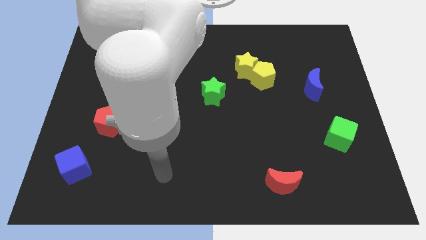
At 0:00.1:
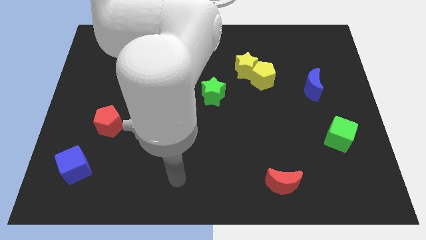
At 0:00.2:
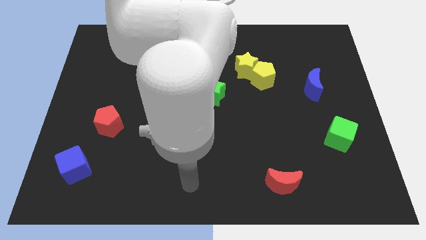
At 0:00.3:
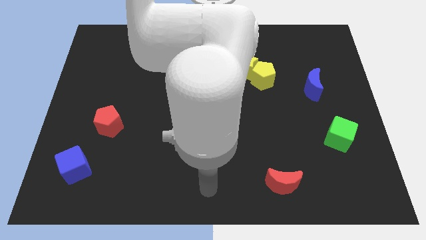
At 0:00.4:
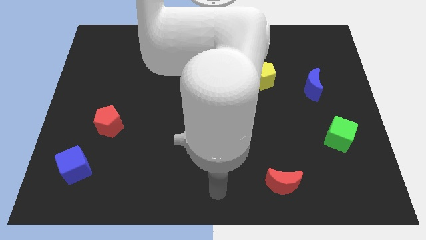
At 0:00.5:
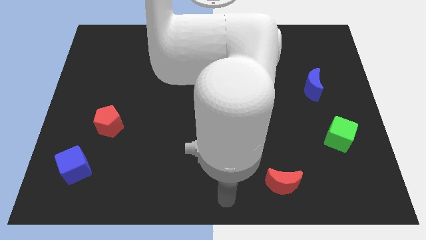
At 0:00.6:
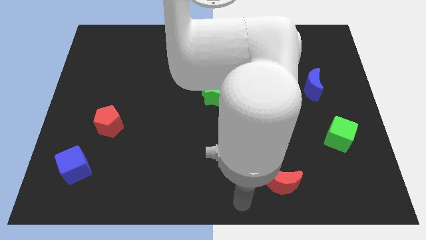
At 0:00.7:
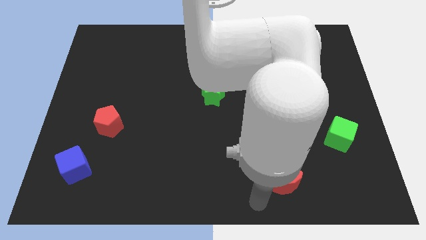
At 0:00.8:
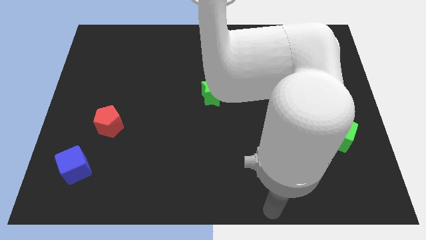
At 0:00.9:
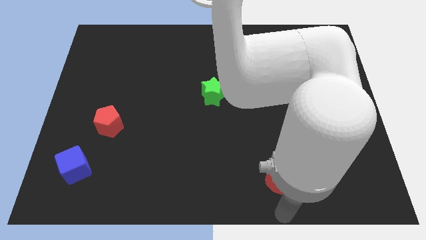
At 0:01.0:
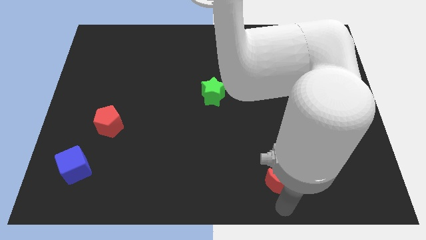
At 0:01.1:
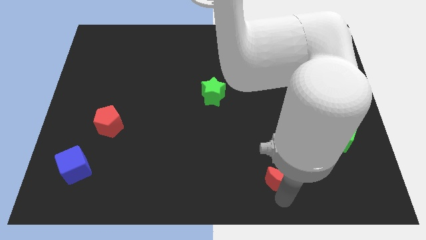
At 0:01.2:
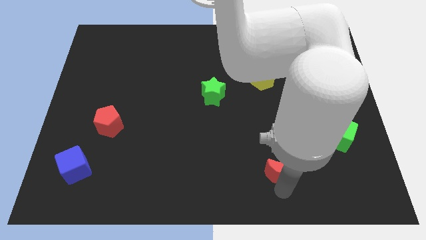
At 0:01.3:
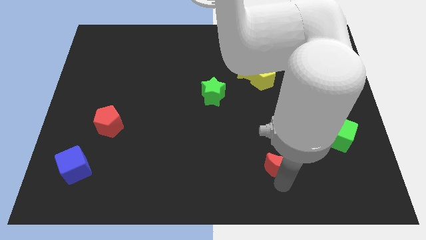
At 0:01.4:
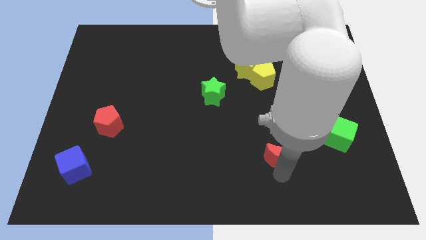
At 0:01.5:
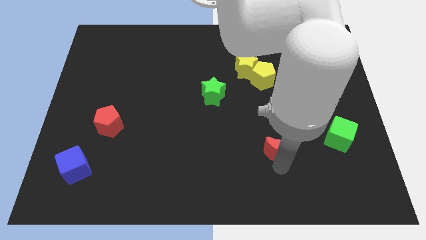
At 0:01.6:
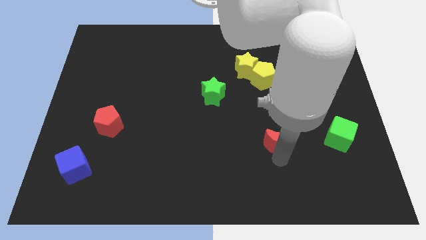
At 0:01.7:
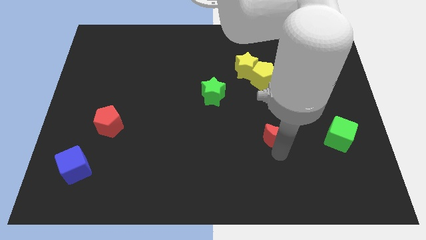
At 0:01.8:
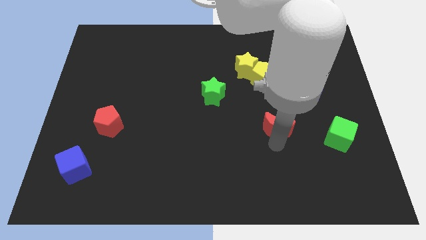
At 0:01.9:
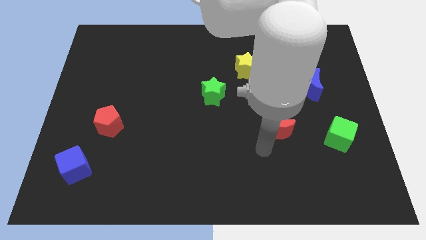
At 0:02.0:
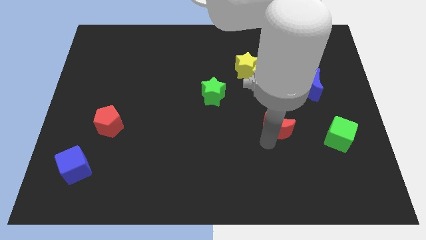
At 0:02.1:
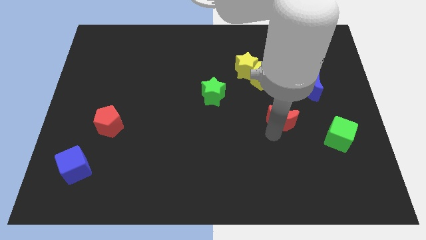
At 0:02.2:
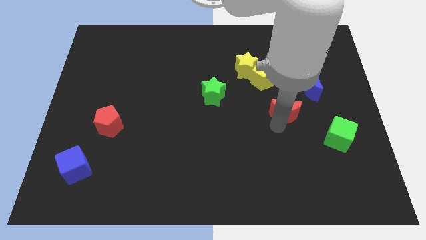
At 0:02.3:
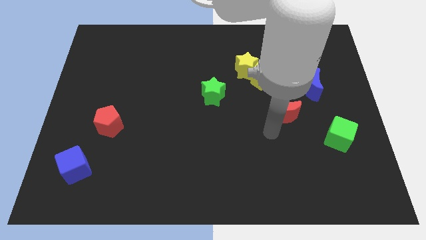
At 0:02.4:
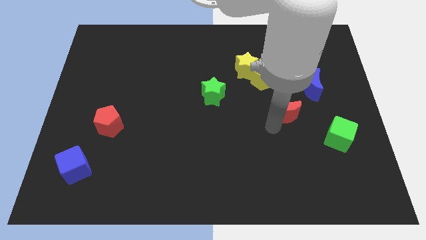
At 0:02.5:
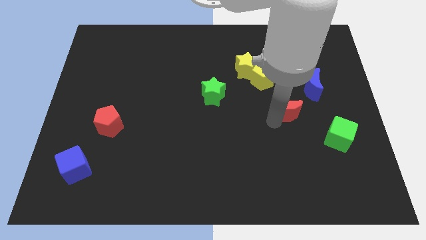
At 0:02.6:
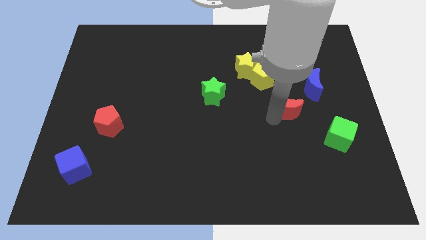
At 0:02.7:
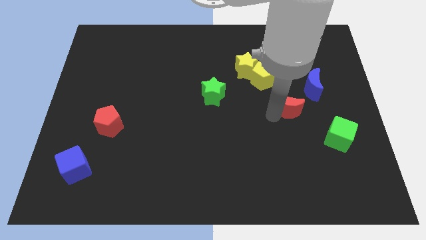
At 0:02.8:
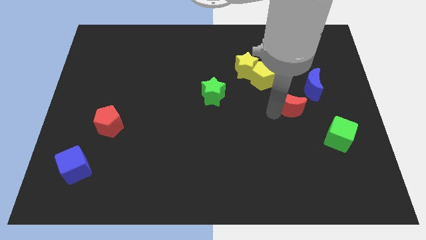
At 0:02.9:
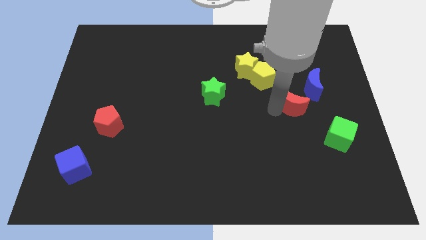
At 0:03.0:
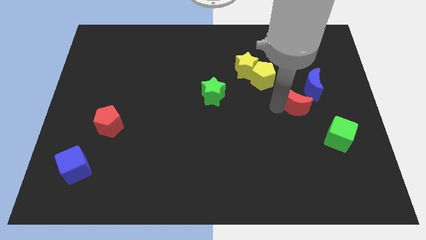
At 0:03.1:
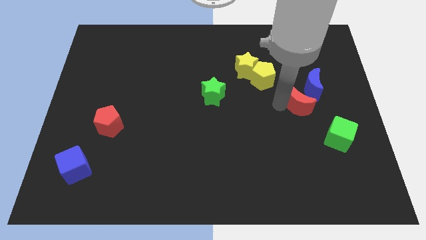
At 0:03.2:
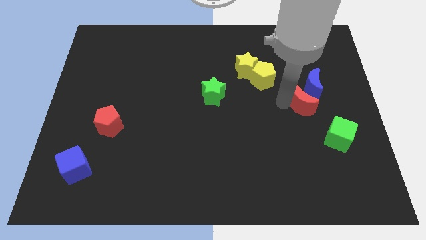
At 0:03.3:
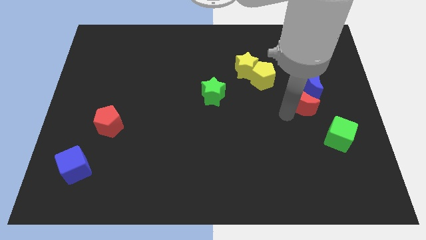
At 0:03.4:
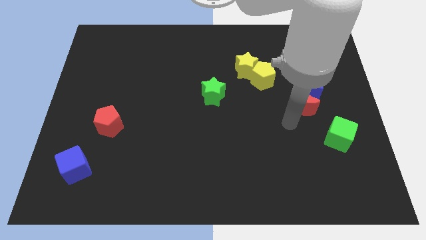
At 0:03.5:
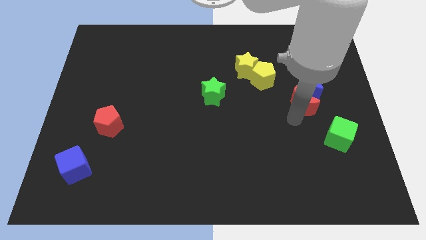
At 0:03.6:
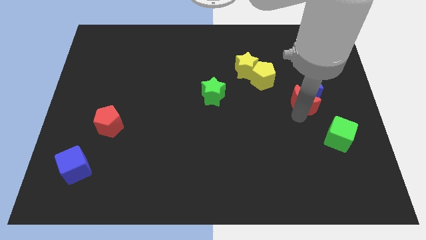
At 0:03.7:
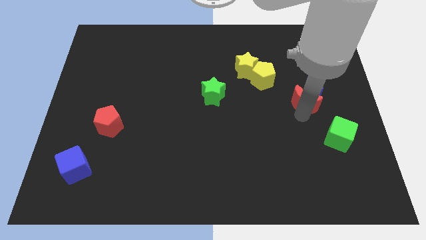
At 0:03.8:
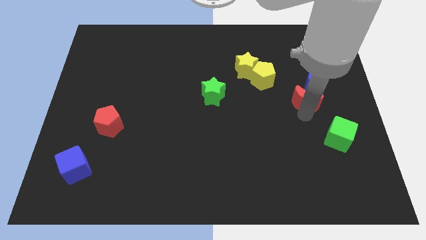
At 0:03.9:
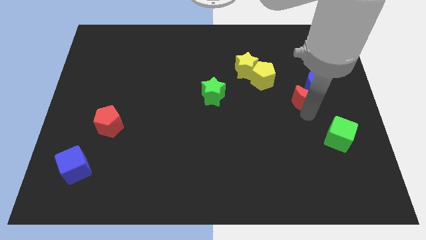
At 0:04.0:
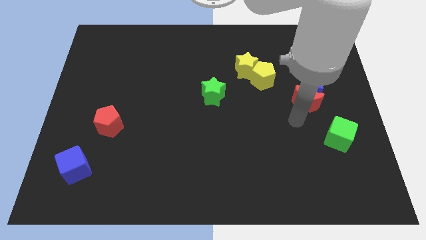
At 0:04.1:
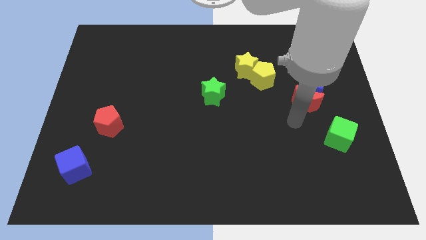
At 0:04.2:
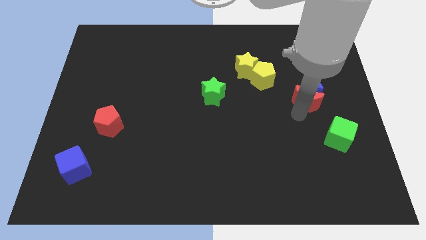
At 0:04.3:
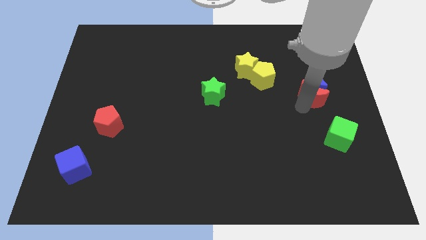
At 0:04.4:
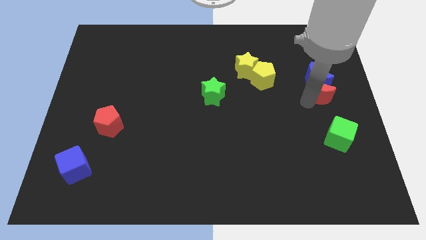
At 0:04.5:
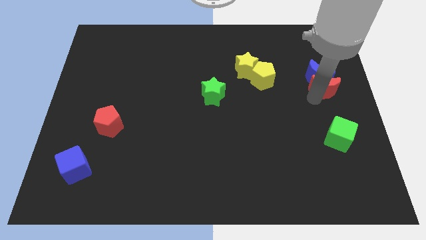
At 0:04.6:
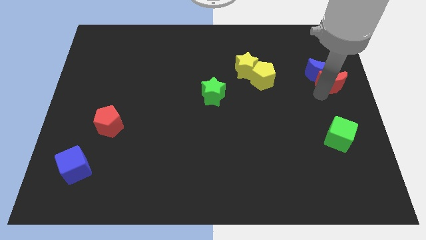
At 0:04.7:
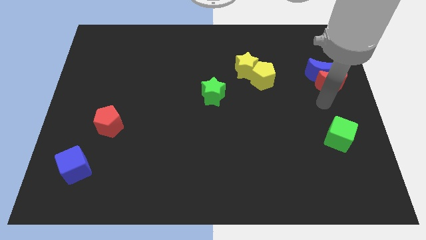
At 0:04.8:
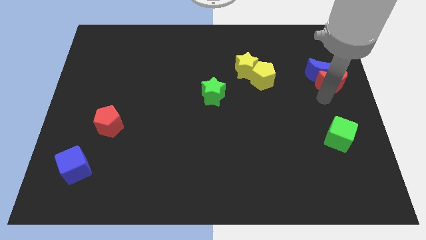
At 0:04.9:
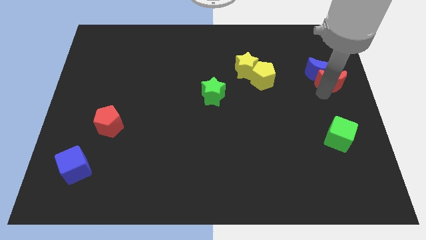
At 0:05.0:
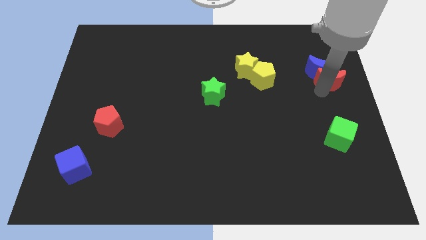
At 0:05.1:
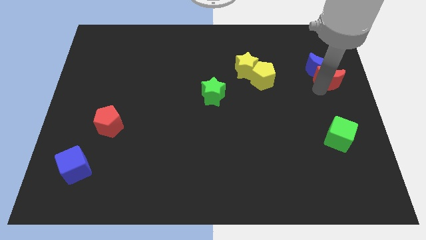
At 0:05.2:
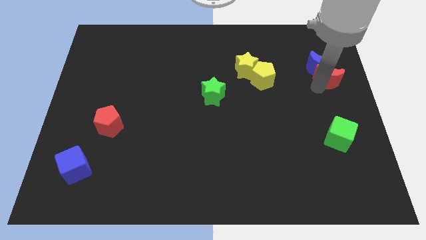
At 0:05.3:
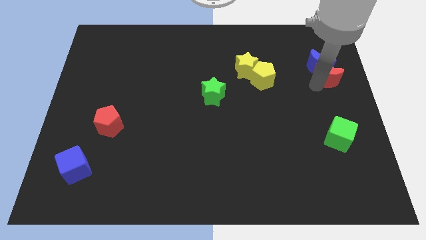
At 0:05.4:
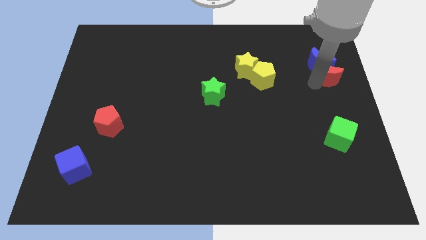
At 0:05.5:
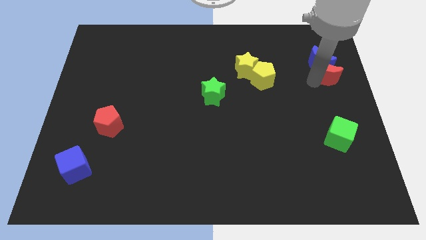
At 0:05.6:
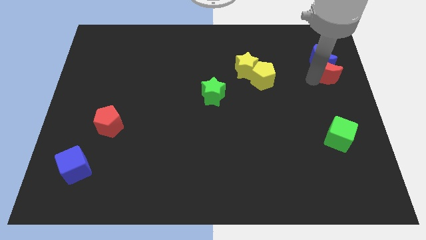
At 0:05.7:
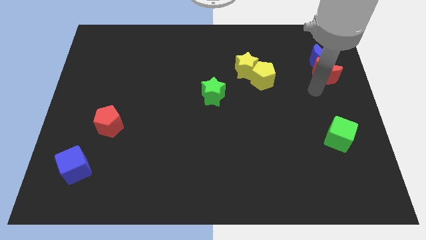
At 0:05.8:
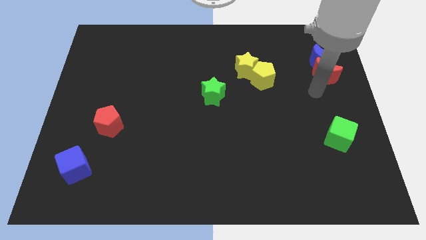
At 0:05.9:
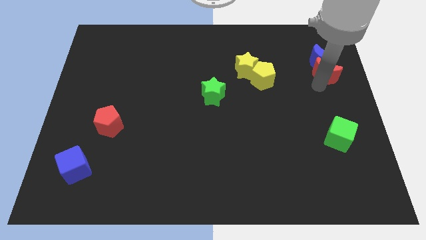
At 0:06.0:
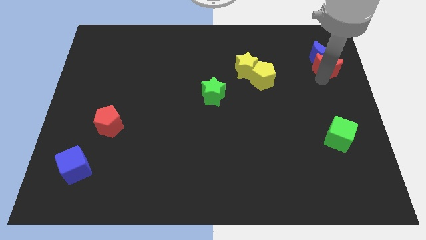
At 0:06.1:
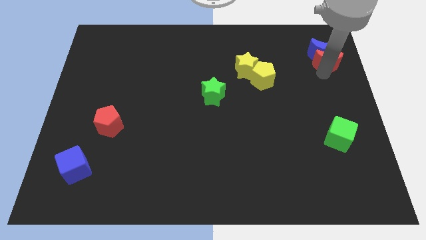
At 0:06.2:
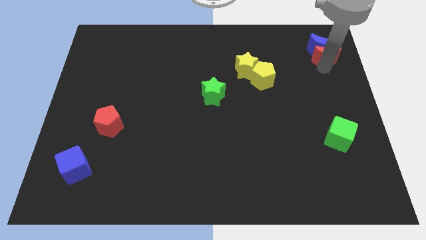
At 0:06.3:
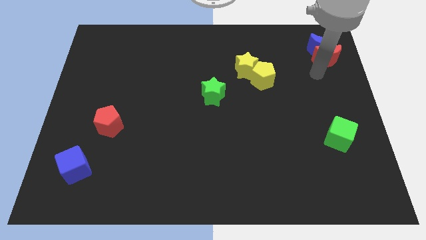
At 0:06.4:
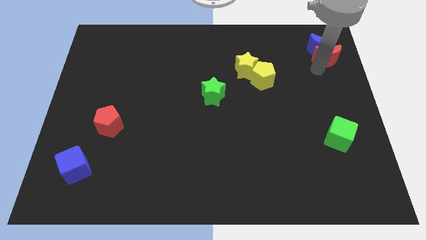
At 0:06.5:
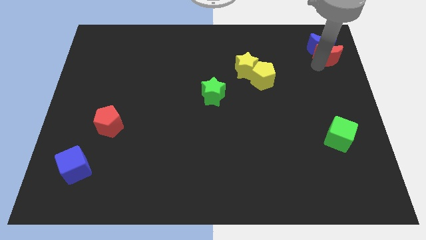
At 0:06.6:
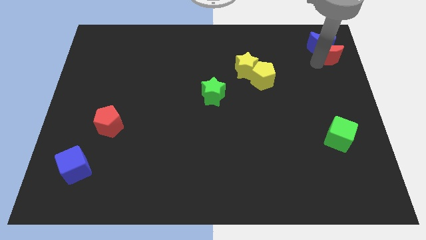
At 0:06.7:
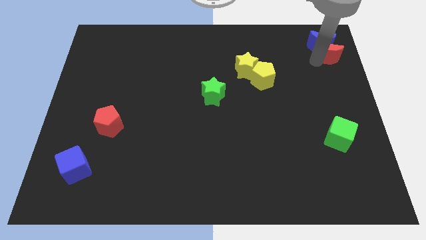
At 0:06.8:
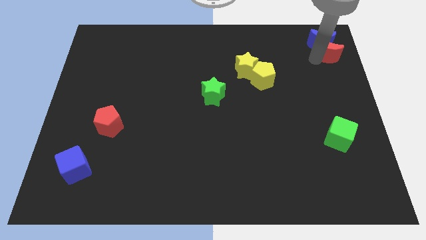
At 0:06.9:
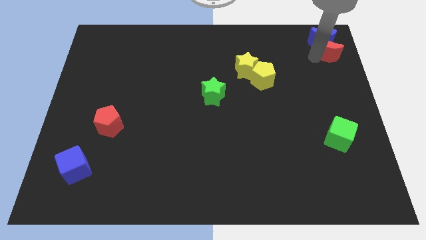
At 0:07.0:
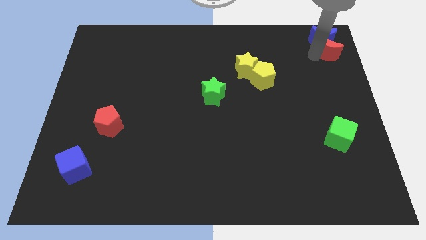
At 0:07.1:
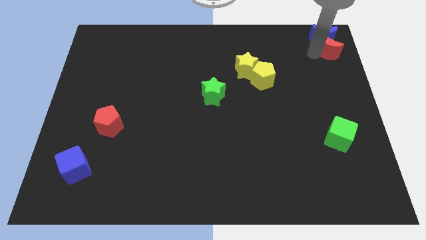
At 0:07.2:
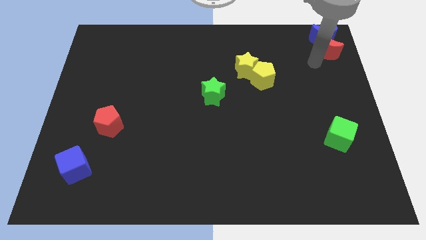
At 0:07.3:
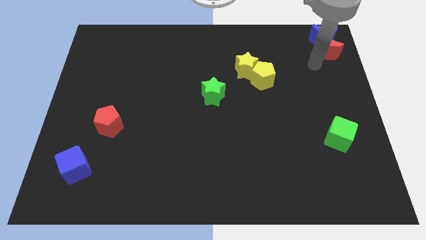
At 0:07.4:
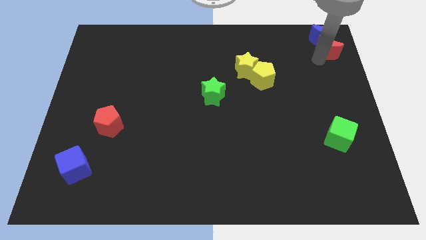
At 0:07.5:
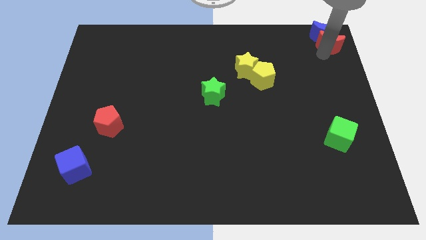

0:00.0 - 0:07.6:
put the red moon to the upper right corner
